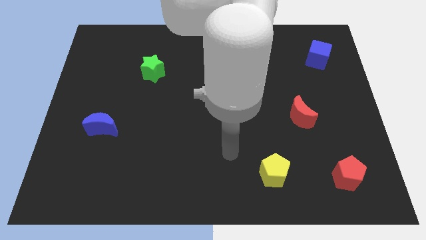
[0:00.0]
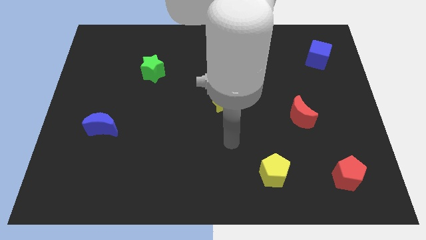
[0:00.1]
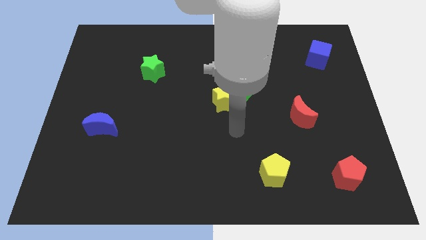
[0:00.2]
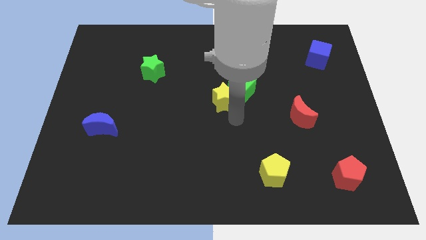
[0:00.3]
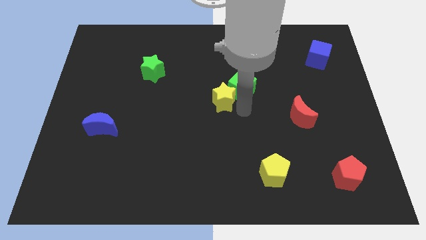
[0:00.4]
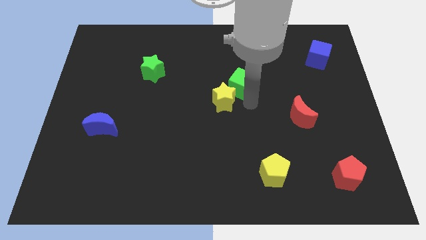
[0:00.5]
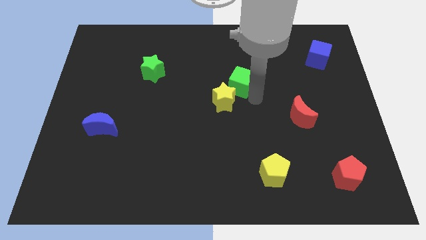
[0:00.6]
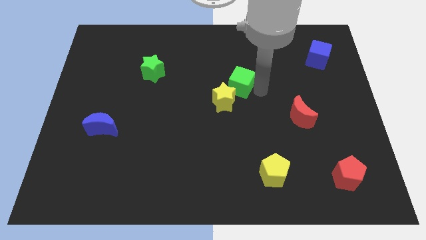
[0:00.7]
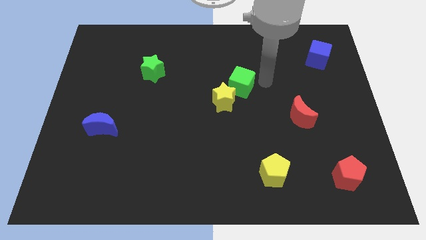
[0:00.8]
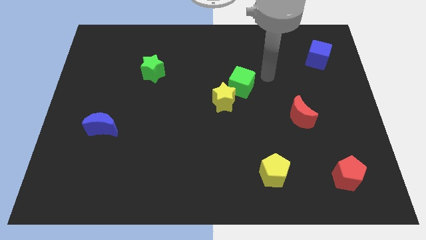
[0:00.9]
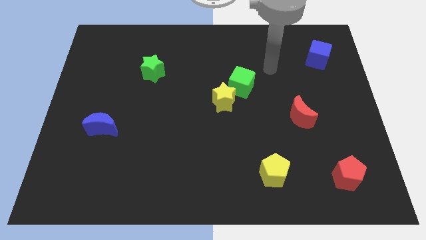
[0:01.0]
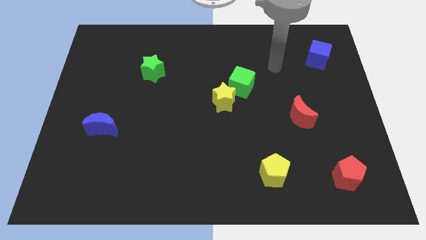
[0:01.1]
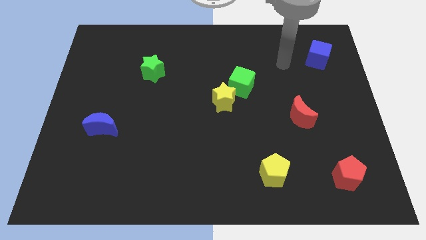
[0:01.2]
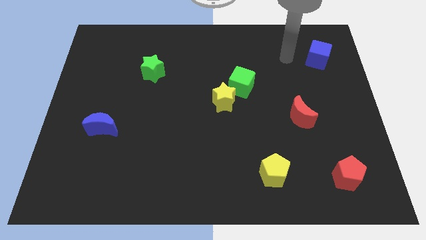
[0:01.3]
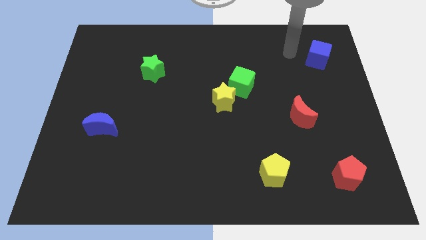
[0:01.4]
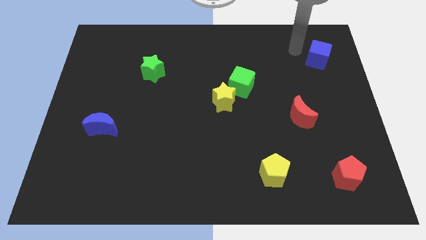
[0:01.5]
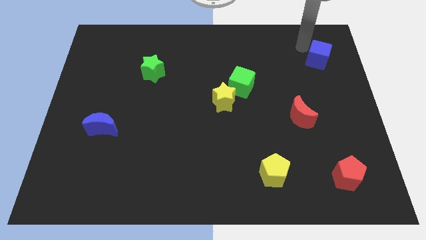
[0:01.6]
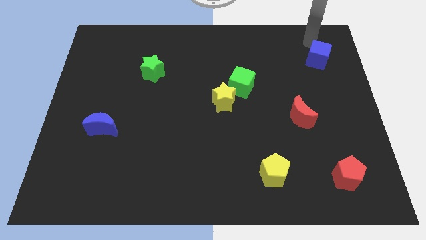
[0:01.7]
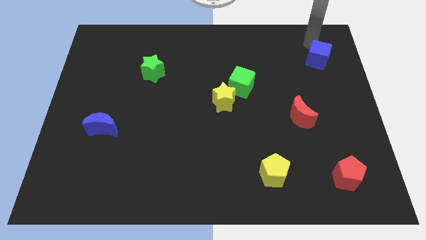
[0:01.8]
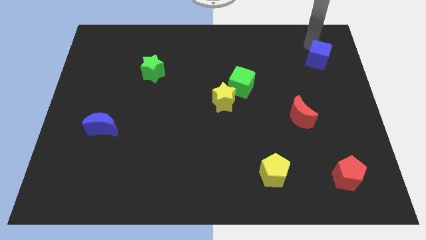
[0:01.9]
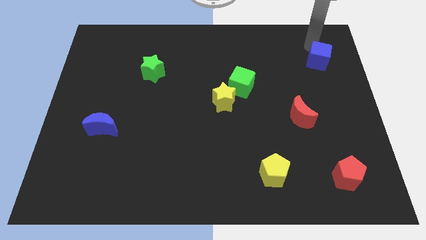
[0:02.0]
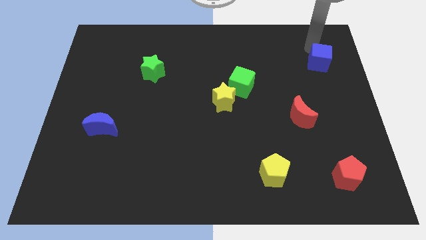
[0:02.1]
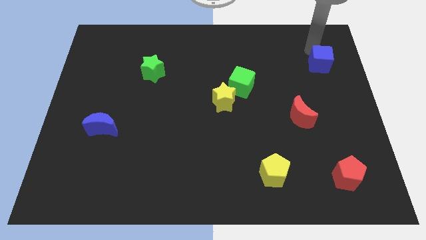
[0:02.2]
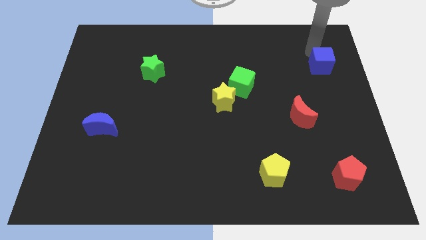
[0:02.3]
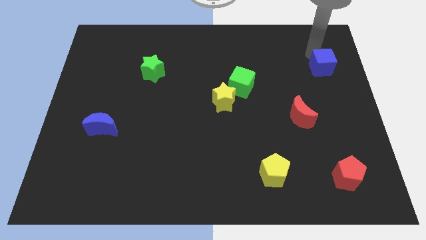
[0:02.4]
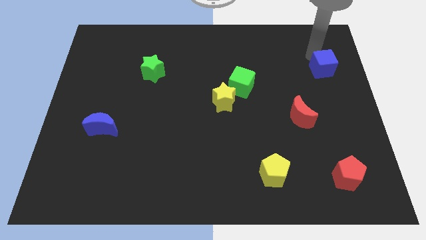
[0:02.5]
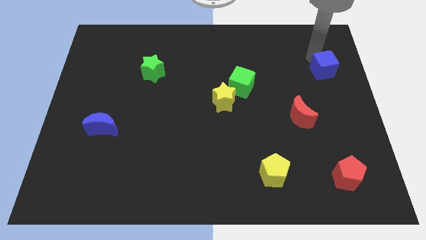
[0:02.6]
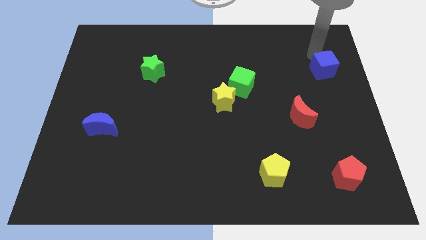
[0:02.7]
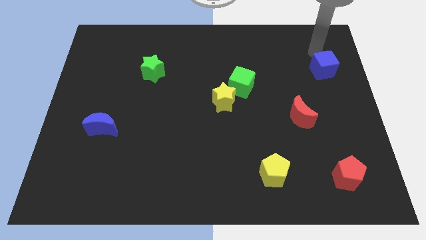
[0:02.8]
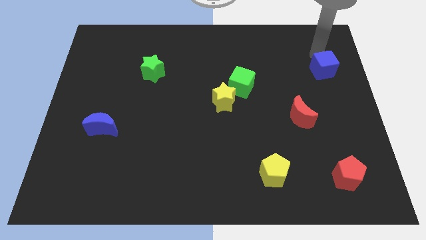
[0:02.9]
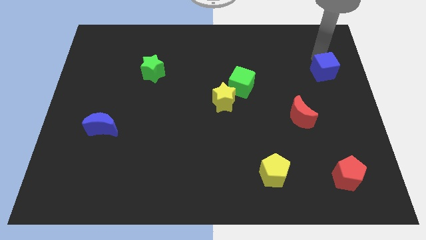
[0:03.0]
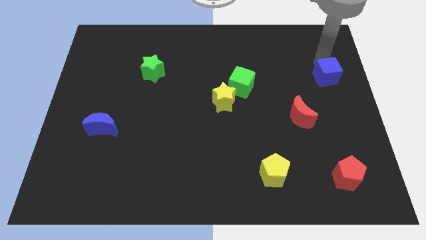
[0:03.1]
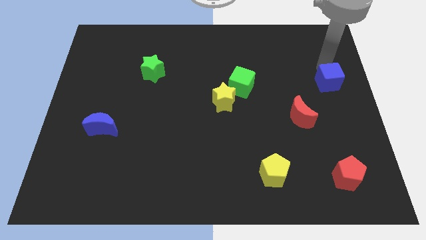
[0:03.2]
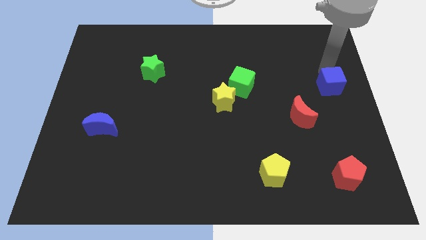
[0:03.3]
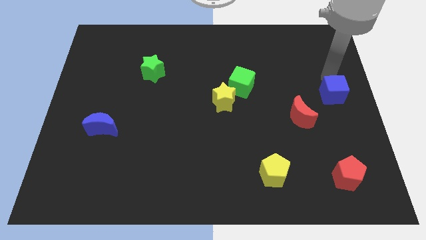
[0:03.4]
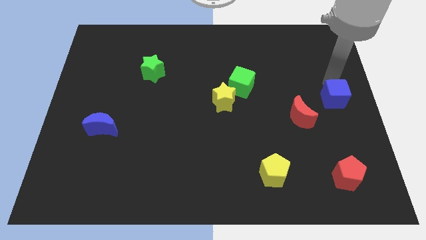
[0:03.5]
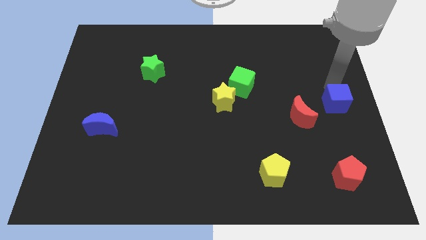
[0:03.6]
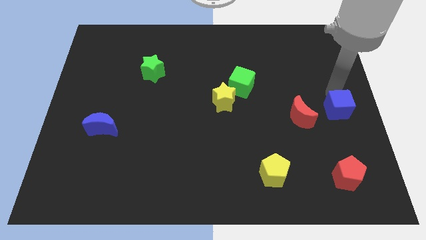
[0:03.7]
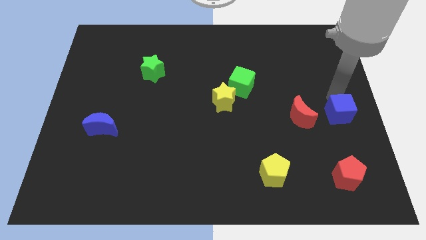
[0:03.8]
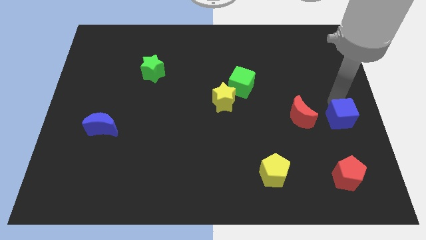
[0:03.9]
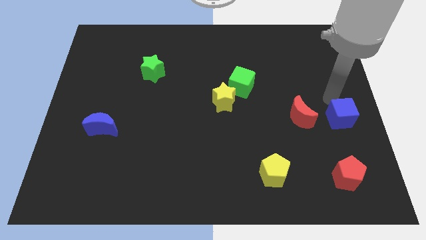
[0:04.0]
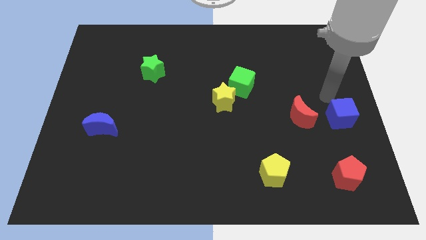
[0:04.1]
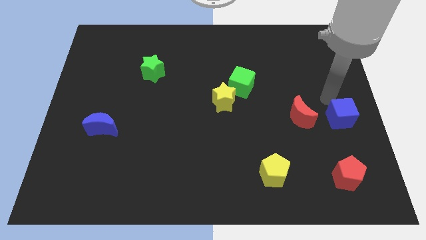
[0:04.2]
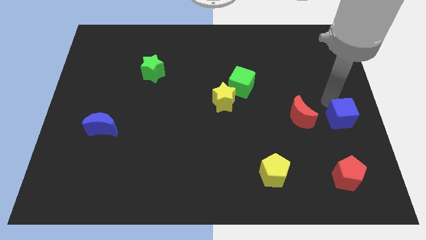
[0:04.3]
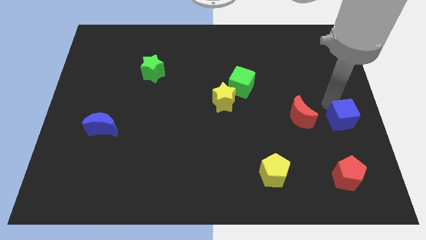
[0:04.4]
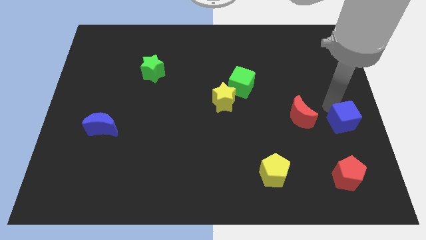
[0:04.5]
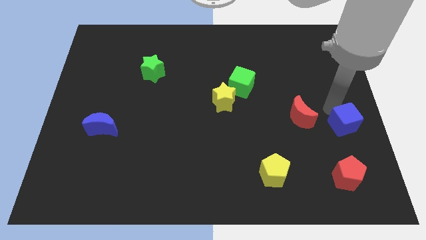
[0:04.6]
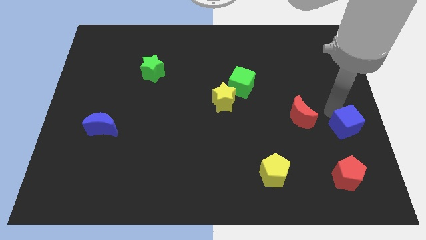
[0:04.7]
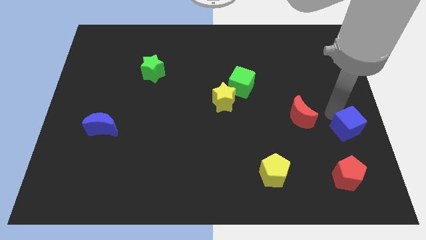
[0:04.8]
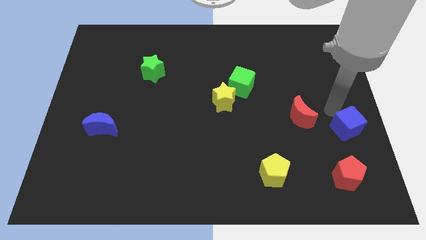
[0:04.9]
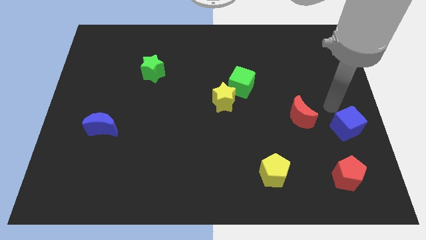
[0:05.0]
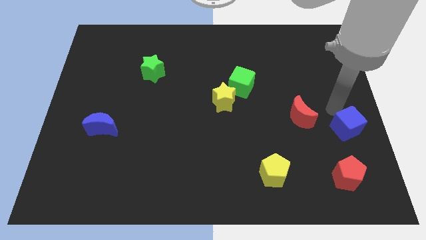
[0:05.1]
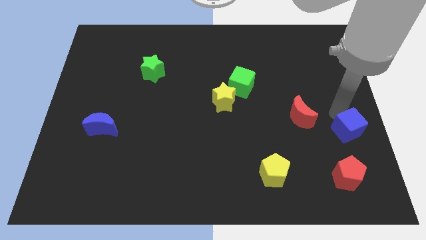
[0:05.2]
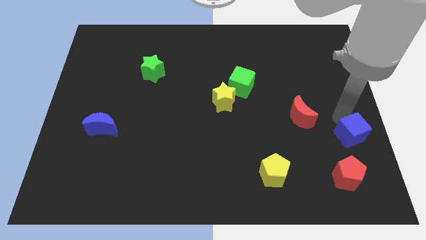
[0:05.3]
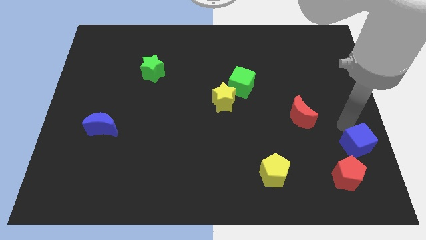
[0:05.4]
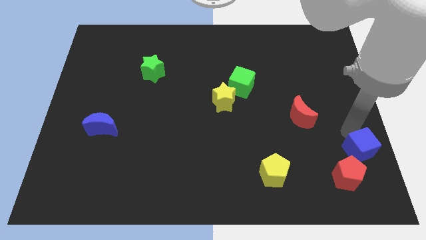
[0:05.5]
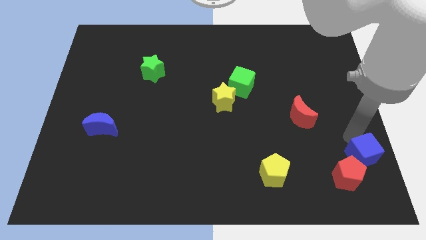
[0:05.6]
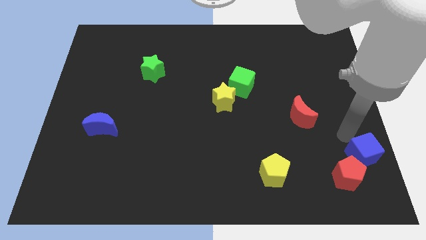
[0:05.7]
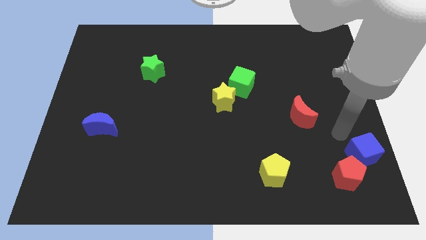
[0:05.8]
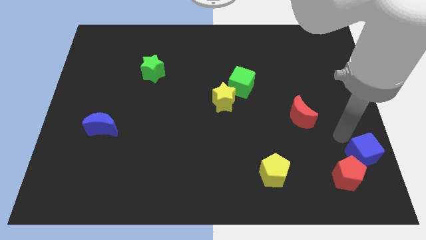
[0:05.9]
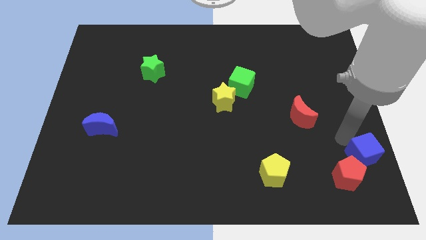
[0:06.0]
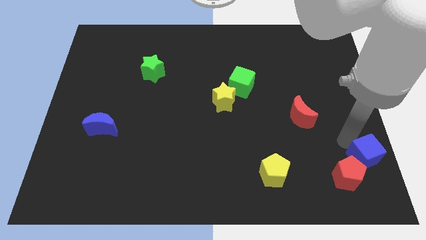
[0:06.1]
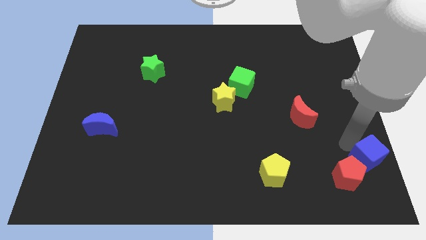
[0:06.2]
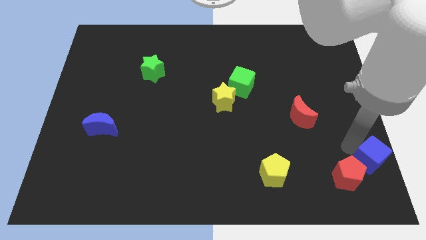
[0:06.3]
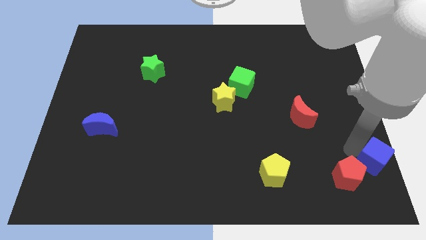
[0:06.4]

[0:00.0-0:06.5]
put the blue cube to the bottom right corner
